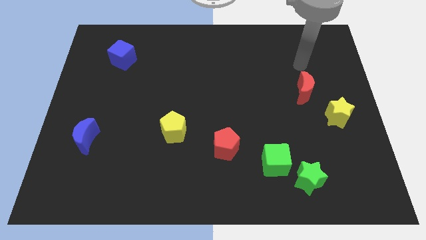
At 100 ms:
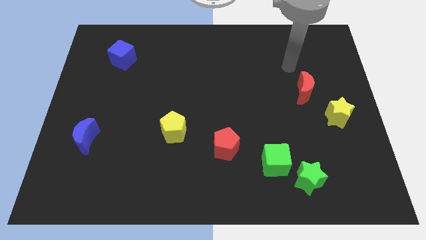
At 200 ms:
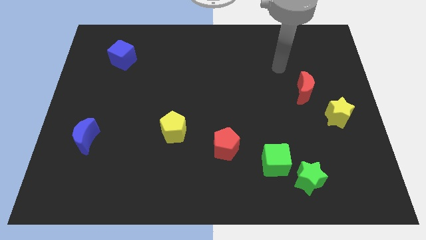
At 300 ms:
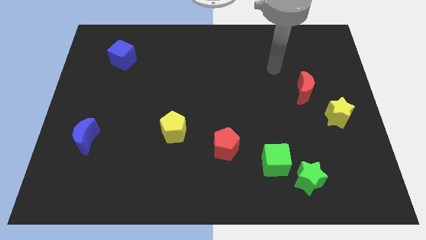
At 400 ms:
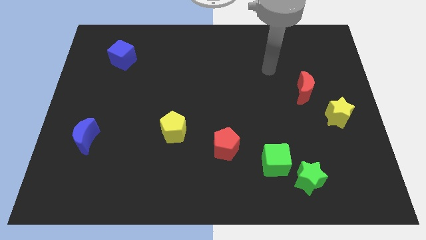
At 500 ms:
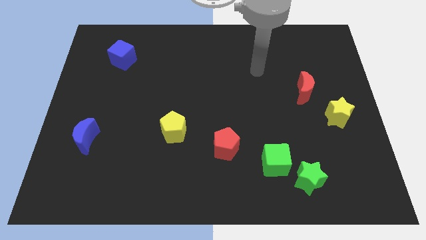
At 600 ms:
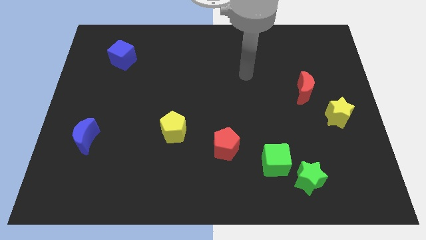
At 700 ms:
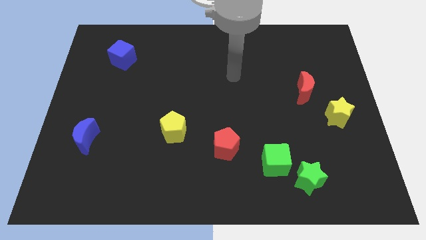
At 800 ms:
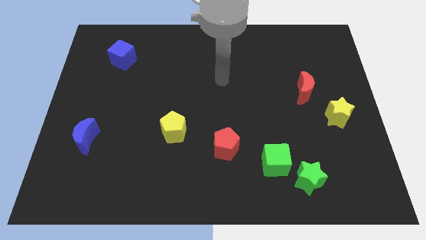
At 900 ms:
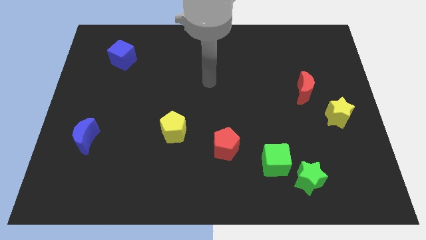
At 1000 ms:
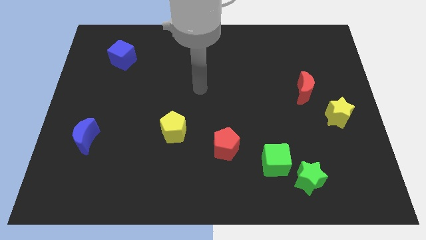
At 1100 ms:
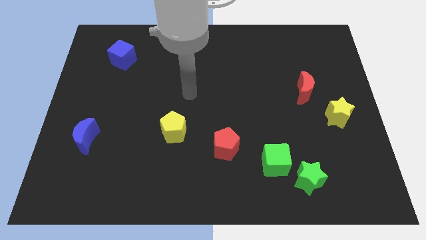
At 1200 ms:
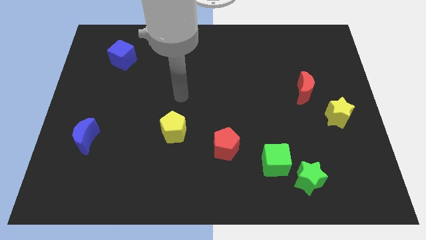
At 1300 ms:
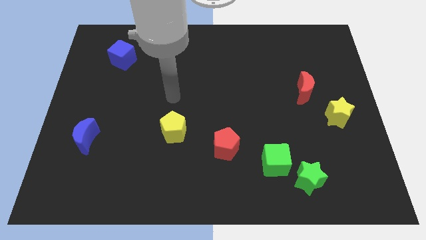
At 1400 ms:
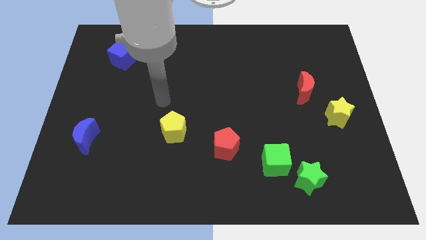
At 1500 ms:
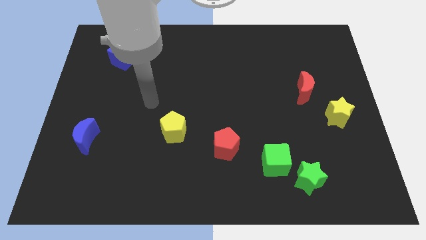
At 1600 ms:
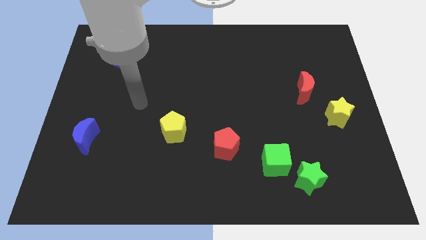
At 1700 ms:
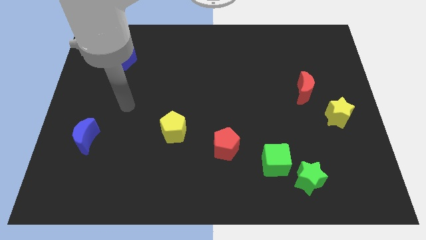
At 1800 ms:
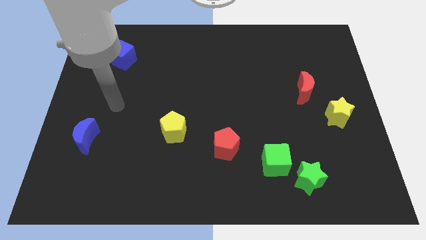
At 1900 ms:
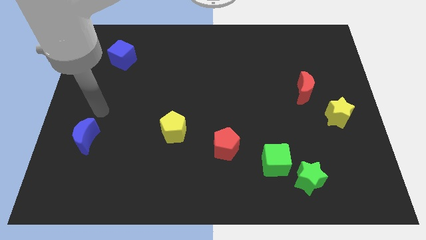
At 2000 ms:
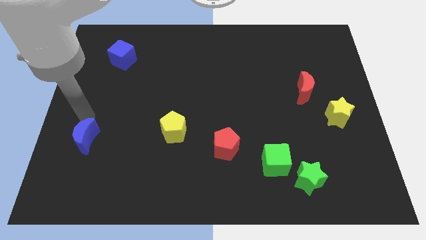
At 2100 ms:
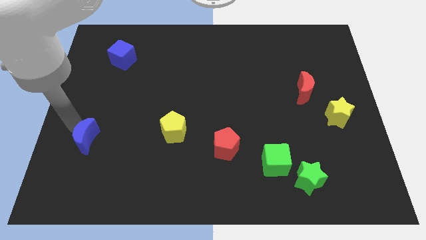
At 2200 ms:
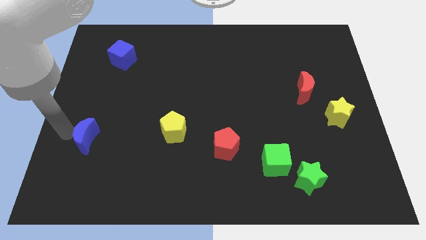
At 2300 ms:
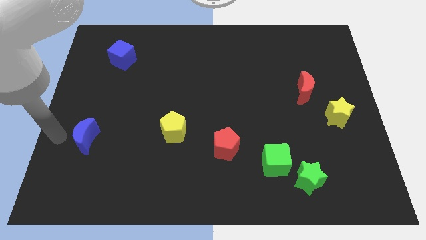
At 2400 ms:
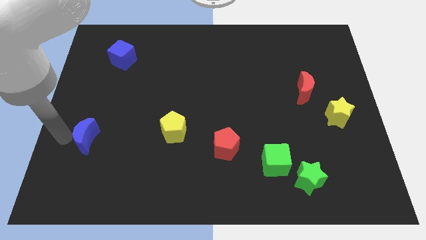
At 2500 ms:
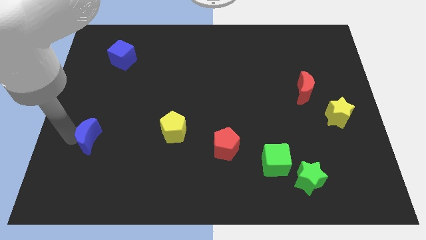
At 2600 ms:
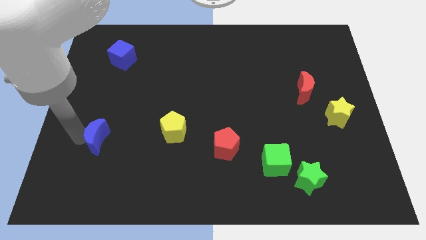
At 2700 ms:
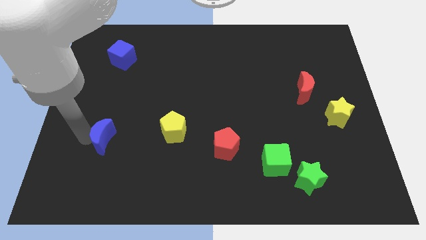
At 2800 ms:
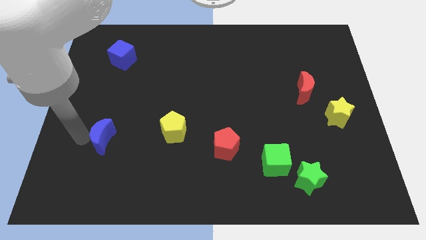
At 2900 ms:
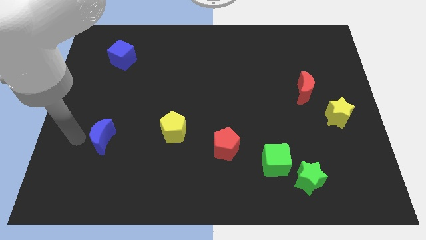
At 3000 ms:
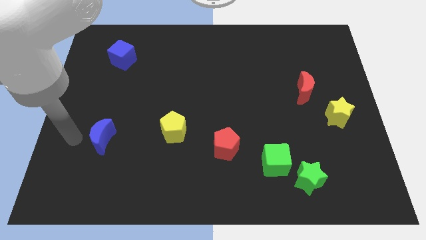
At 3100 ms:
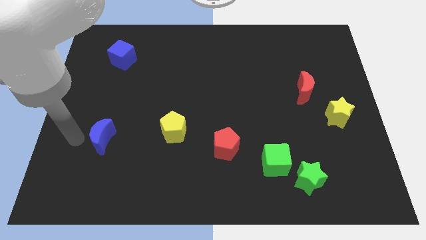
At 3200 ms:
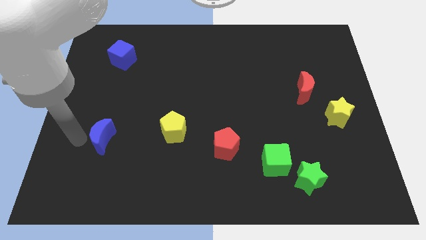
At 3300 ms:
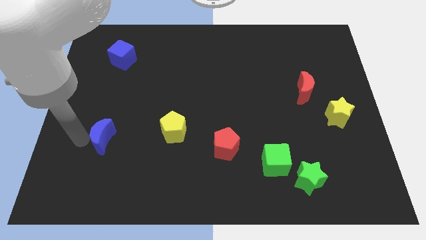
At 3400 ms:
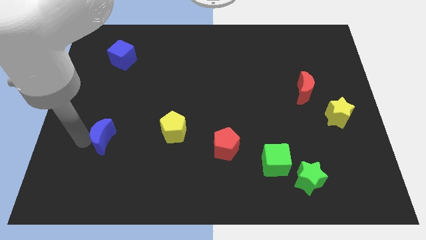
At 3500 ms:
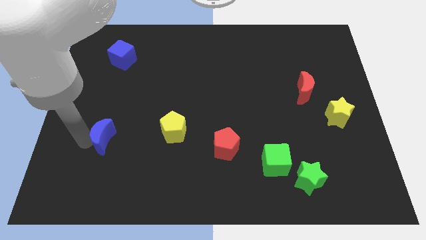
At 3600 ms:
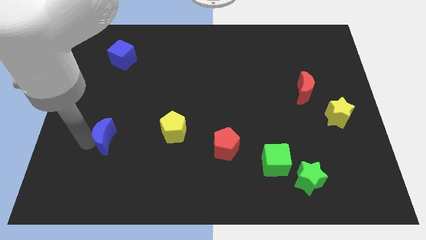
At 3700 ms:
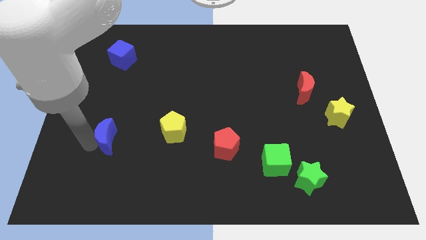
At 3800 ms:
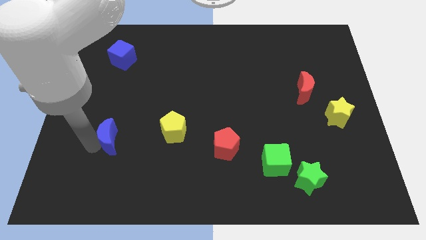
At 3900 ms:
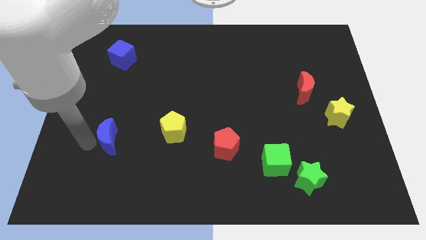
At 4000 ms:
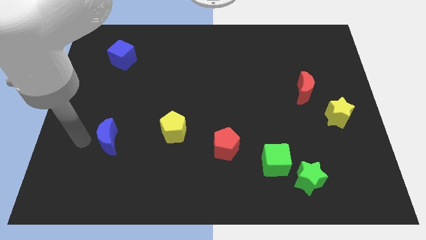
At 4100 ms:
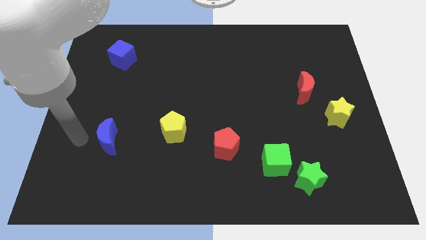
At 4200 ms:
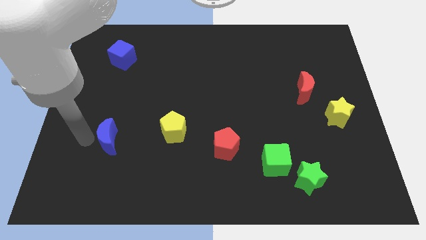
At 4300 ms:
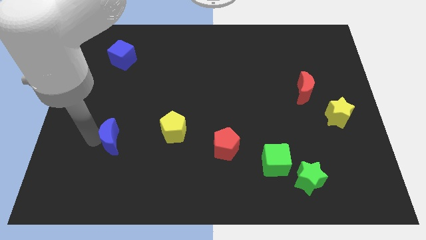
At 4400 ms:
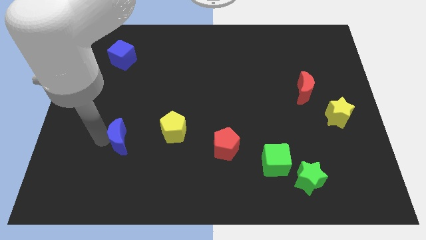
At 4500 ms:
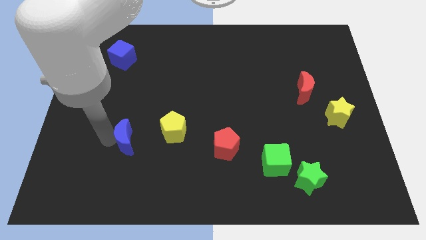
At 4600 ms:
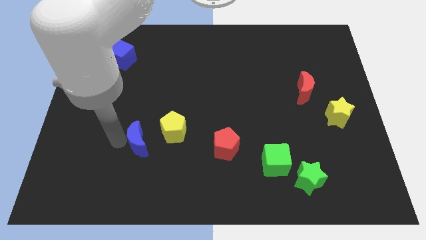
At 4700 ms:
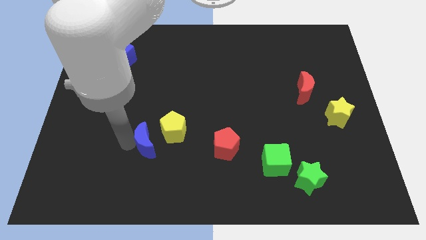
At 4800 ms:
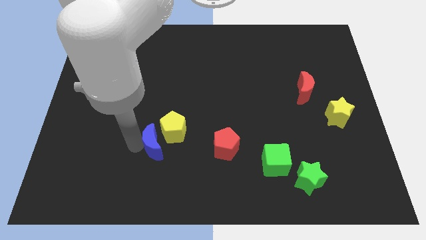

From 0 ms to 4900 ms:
put the blue moon to the yellow pentagon

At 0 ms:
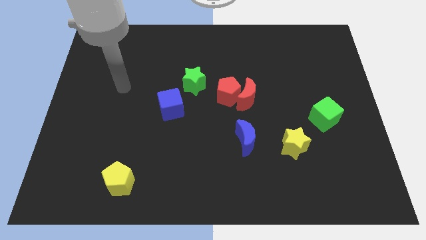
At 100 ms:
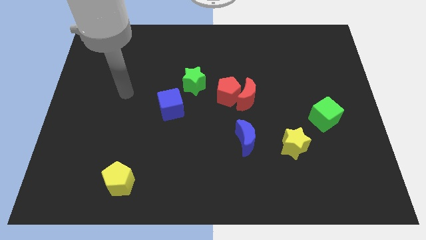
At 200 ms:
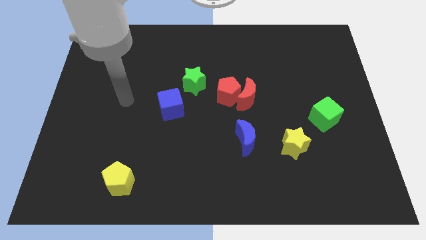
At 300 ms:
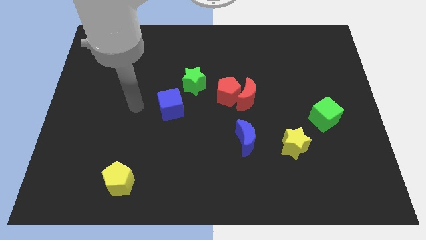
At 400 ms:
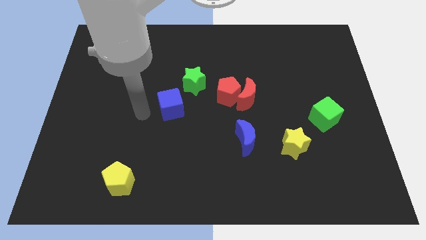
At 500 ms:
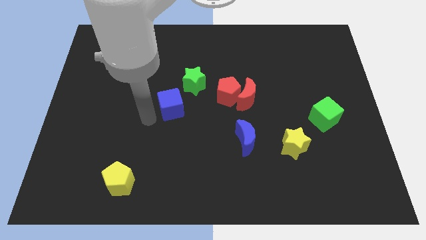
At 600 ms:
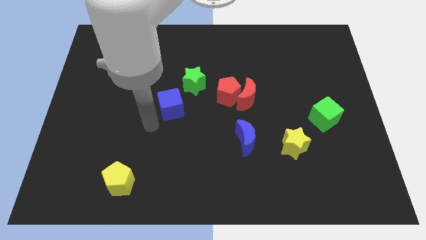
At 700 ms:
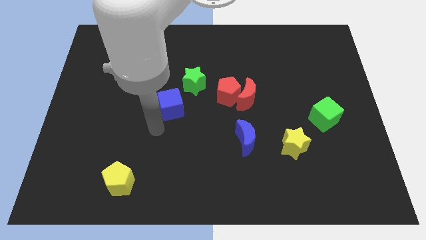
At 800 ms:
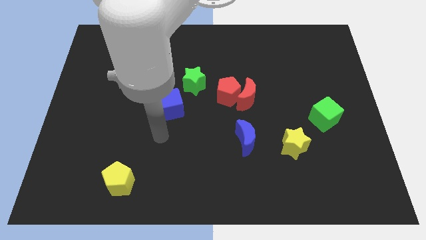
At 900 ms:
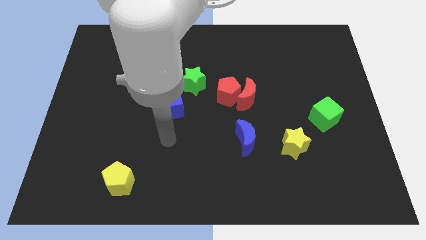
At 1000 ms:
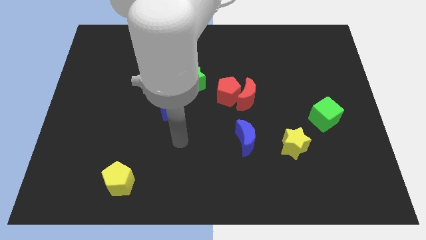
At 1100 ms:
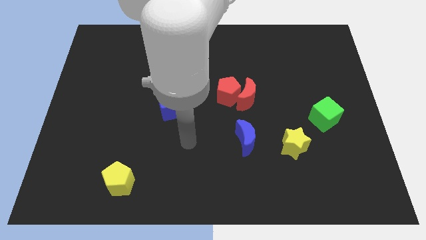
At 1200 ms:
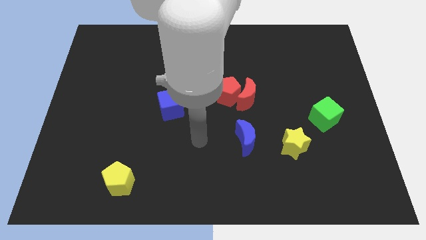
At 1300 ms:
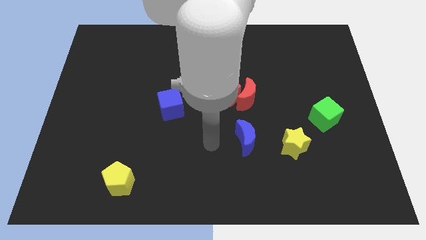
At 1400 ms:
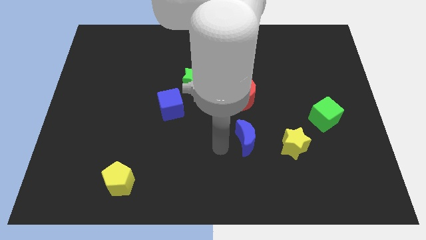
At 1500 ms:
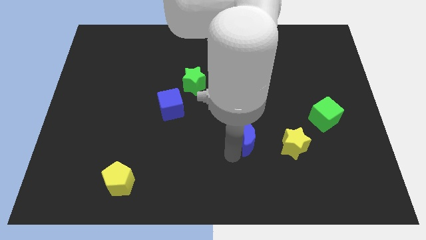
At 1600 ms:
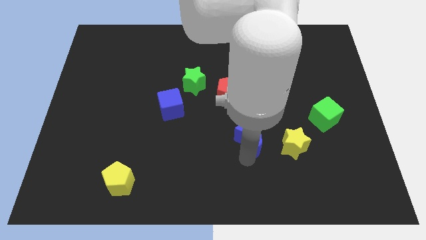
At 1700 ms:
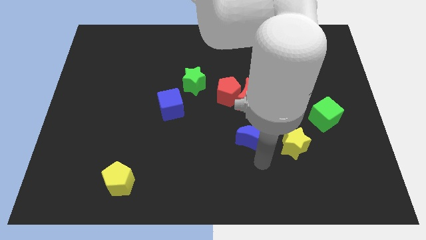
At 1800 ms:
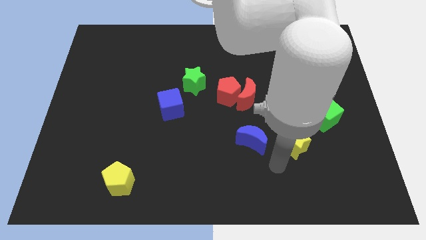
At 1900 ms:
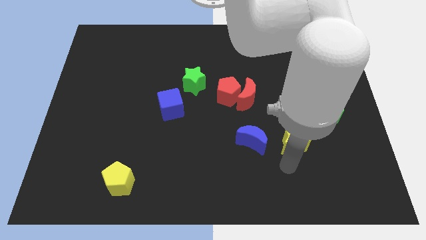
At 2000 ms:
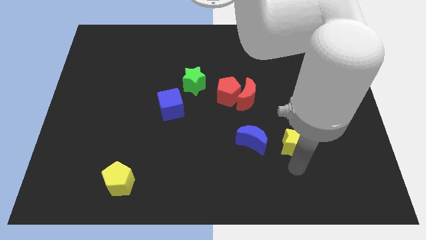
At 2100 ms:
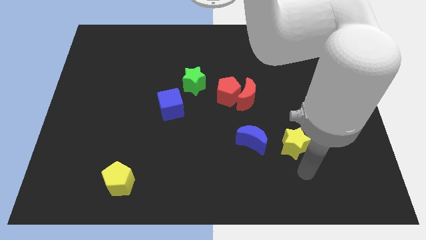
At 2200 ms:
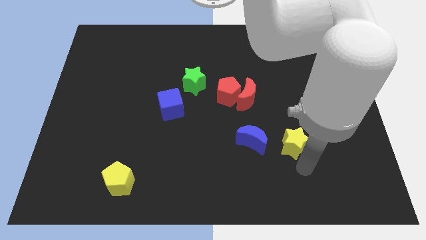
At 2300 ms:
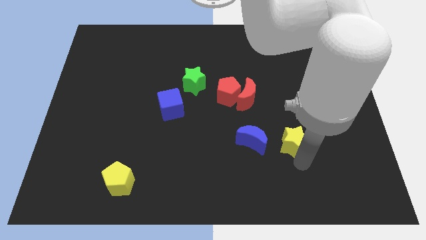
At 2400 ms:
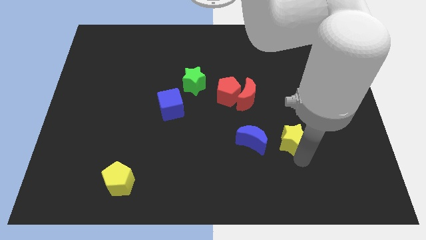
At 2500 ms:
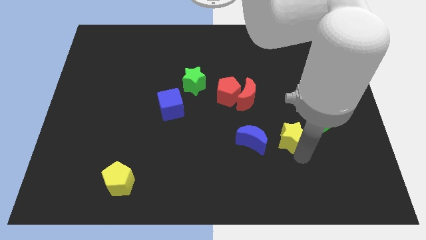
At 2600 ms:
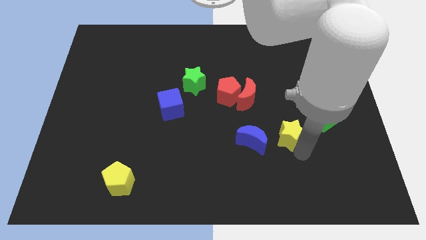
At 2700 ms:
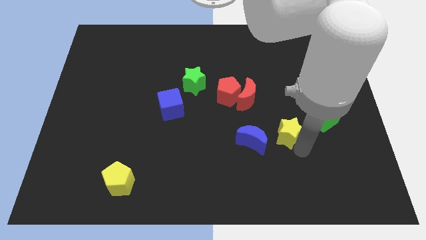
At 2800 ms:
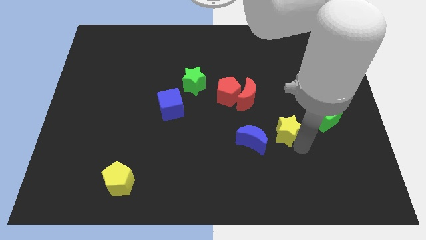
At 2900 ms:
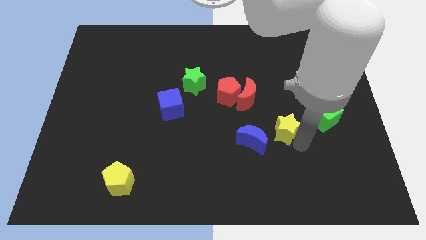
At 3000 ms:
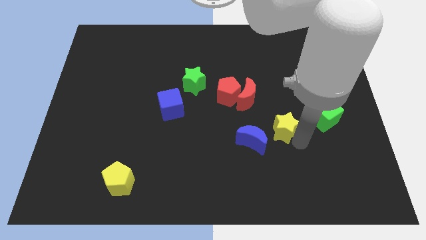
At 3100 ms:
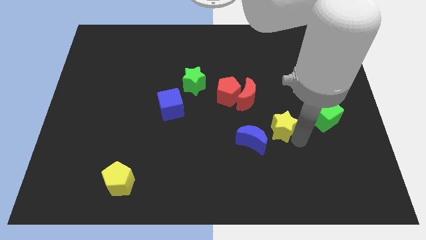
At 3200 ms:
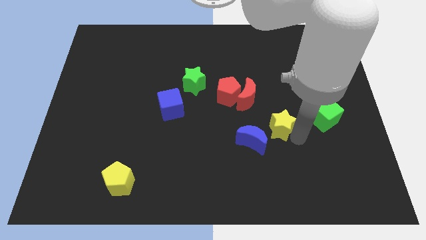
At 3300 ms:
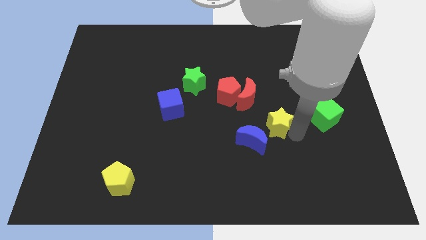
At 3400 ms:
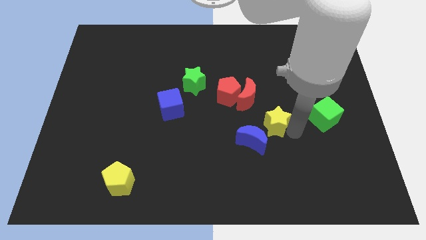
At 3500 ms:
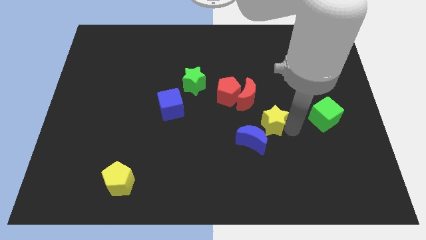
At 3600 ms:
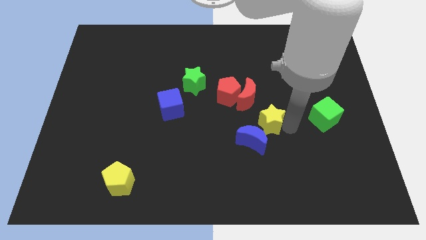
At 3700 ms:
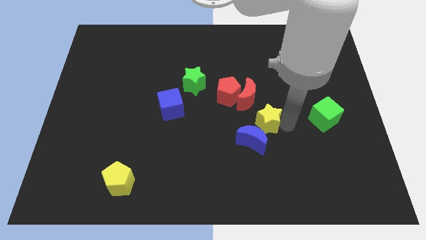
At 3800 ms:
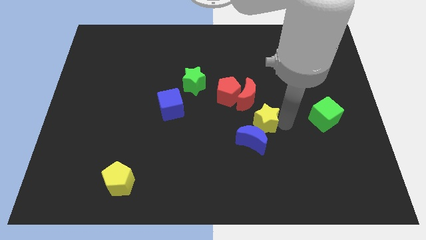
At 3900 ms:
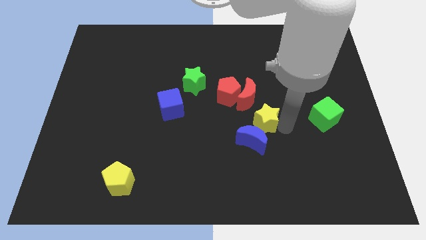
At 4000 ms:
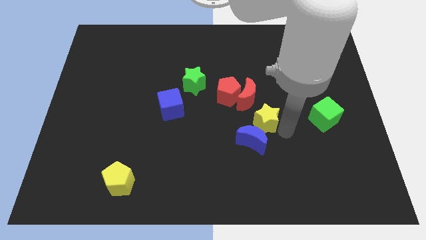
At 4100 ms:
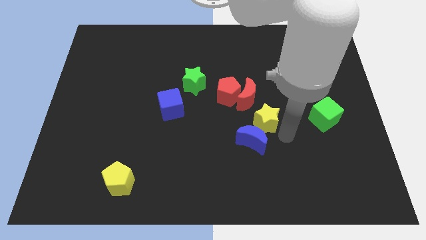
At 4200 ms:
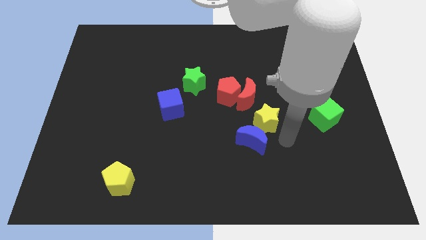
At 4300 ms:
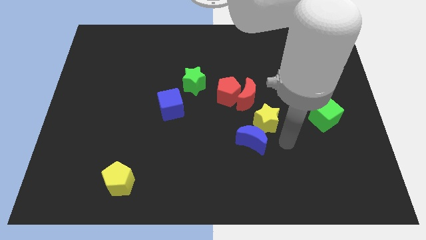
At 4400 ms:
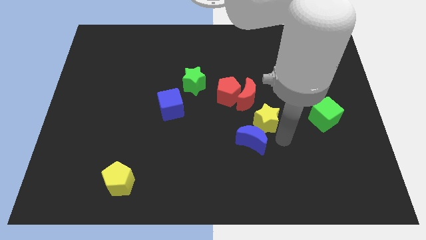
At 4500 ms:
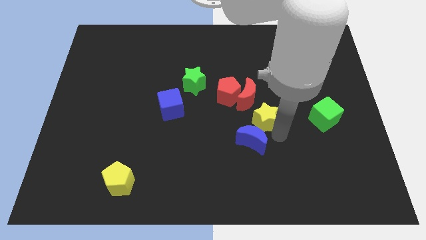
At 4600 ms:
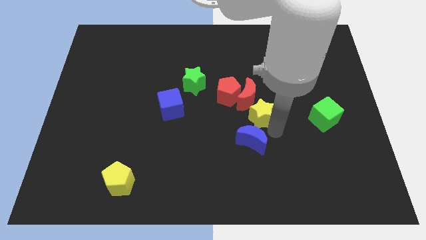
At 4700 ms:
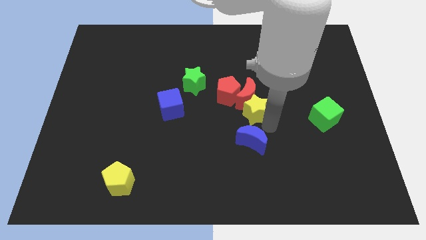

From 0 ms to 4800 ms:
put the yellow star to the red moon
